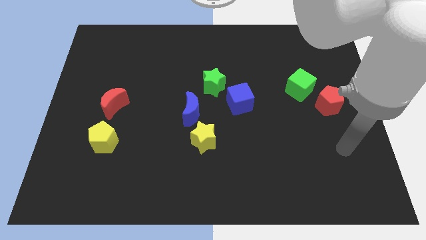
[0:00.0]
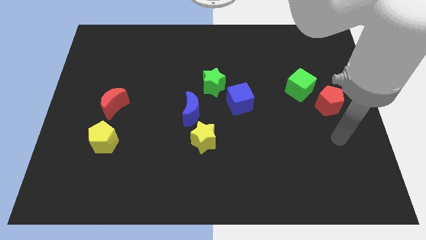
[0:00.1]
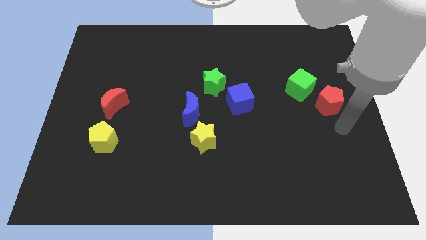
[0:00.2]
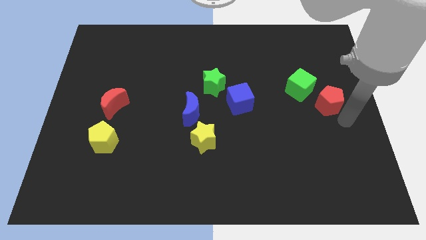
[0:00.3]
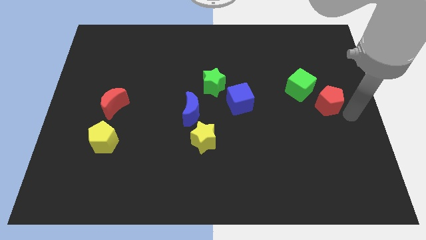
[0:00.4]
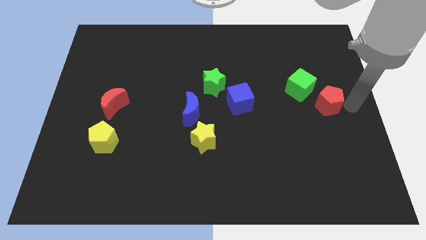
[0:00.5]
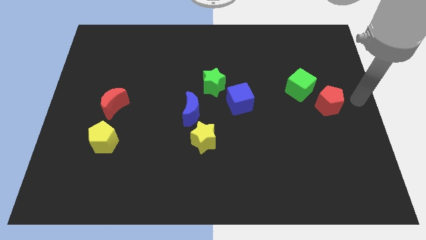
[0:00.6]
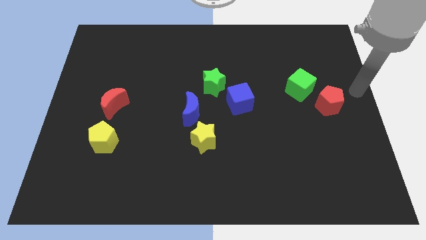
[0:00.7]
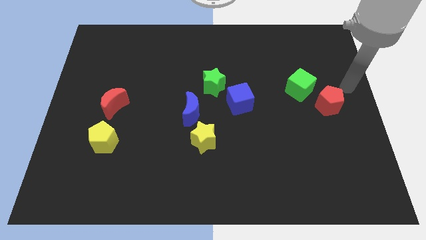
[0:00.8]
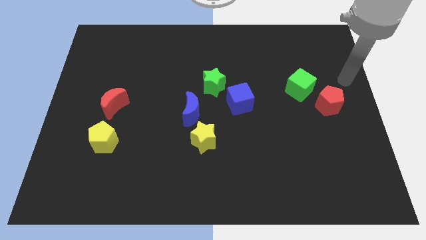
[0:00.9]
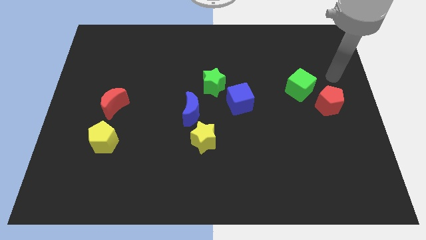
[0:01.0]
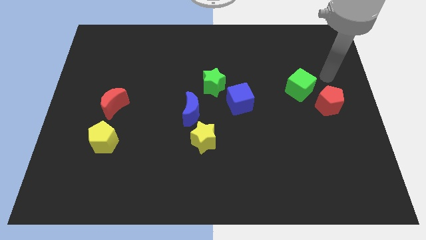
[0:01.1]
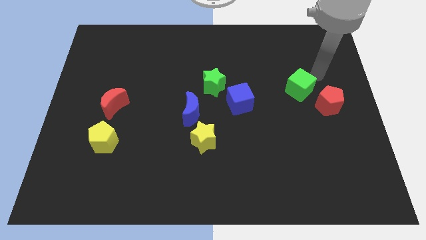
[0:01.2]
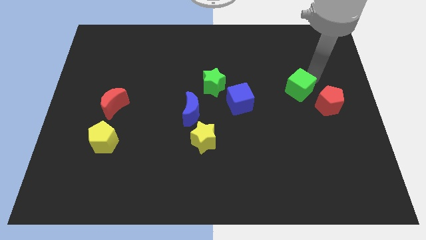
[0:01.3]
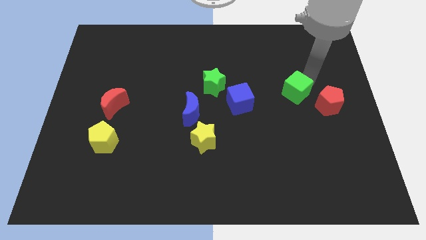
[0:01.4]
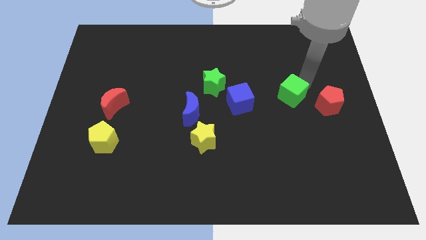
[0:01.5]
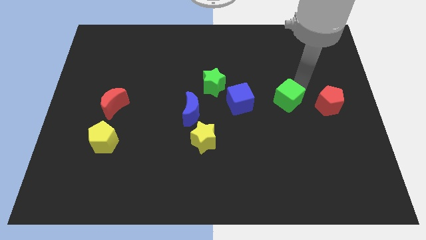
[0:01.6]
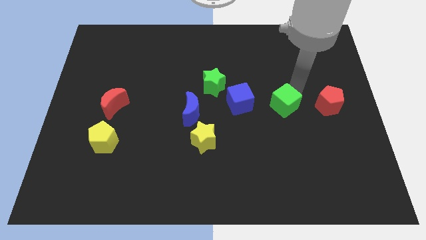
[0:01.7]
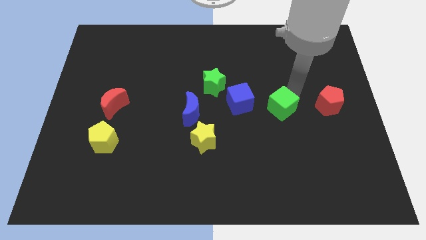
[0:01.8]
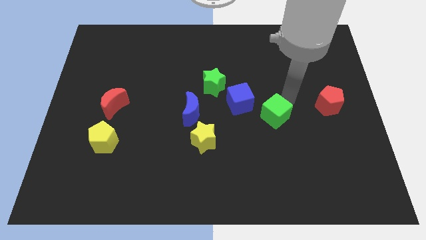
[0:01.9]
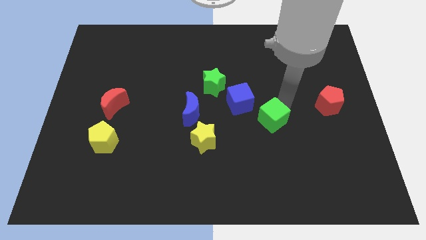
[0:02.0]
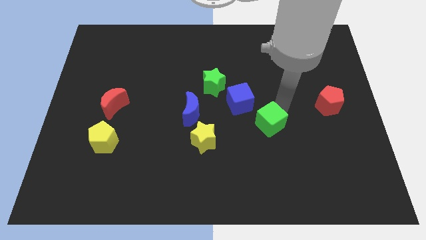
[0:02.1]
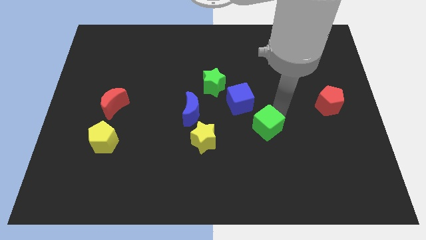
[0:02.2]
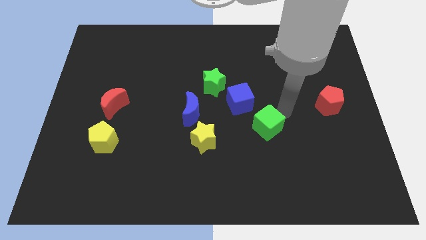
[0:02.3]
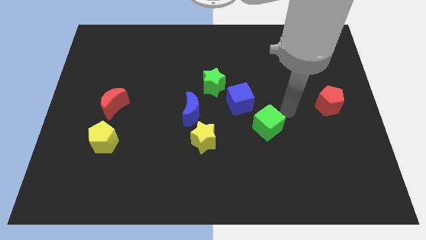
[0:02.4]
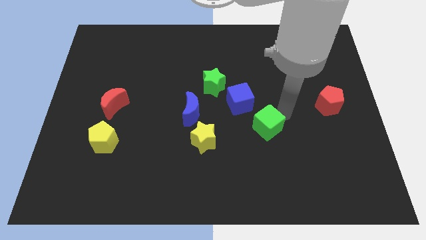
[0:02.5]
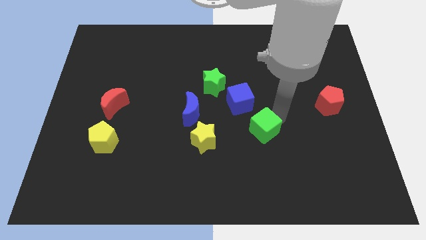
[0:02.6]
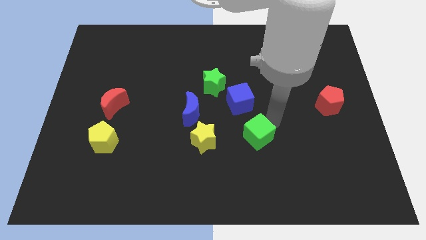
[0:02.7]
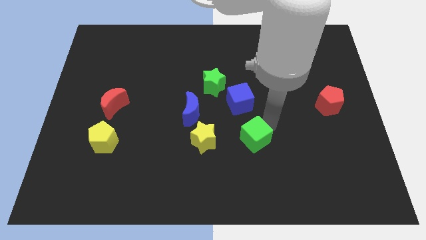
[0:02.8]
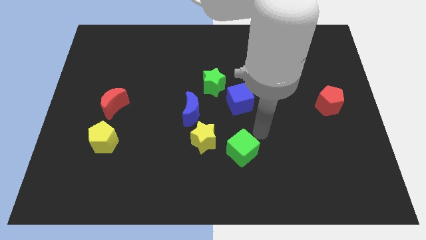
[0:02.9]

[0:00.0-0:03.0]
push the green cube downwards and then left

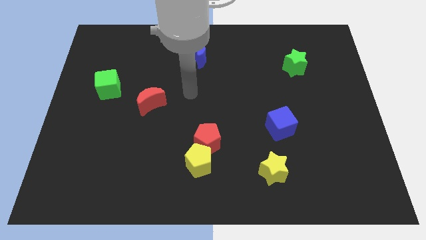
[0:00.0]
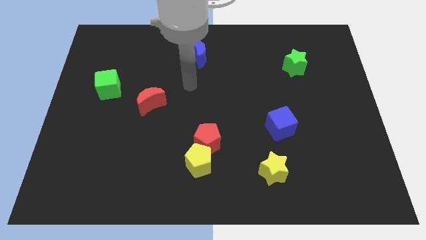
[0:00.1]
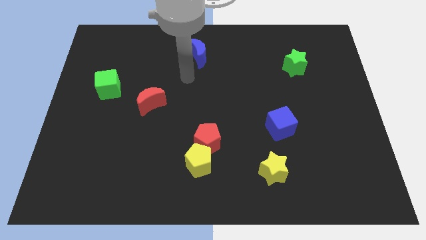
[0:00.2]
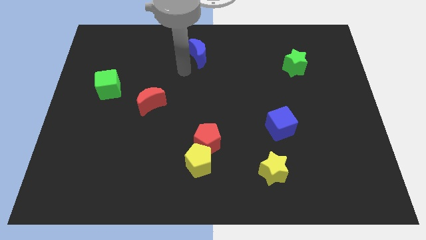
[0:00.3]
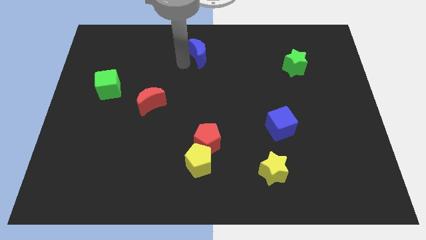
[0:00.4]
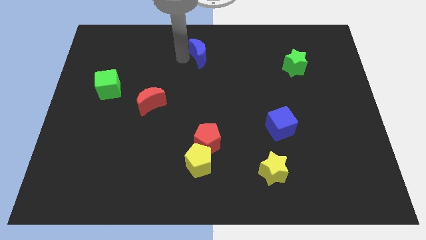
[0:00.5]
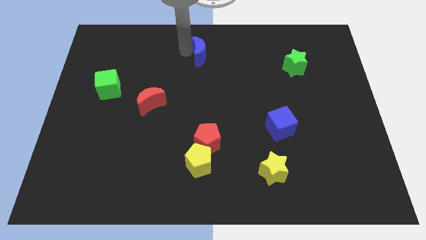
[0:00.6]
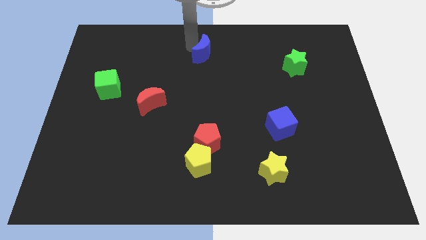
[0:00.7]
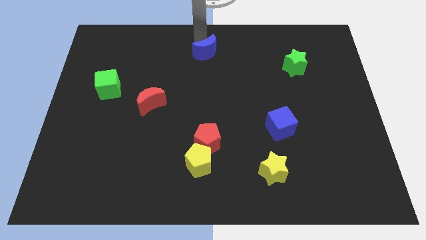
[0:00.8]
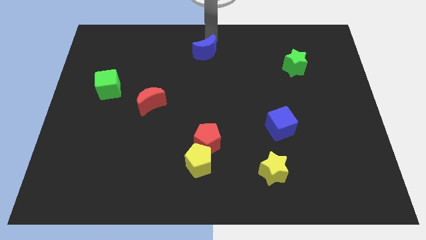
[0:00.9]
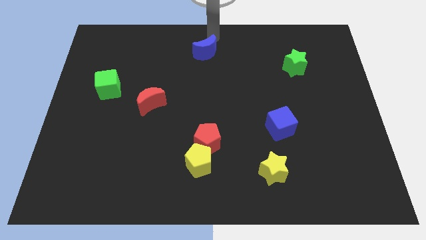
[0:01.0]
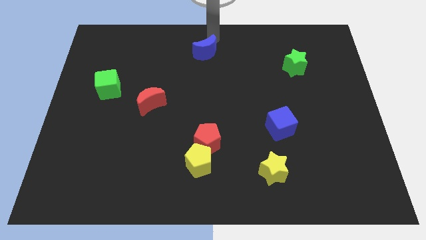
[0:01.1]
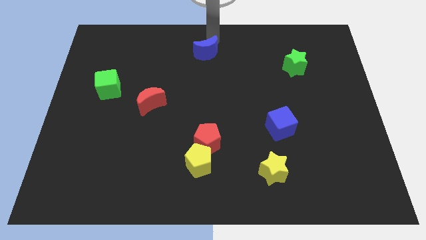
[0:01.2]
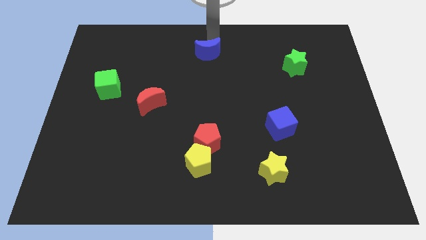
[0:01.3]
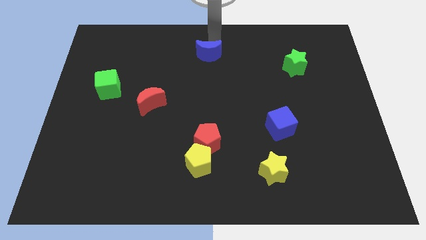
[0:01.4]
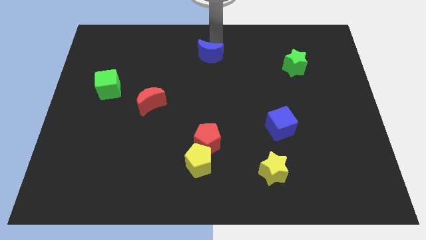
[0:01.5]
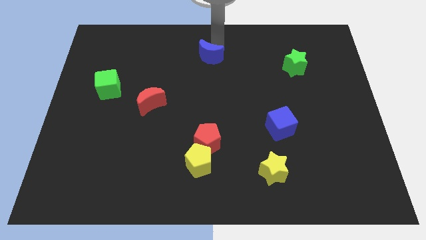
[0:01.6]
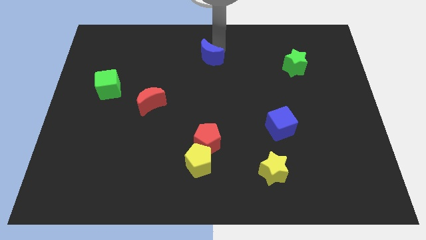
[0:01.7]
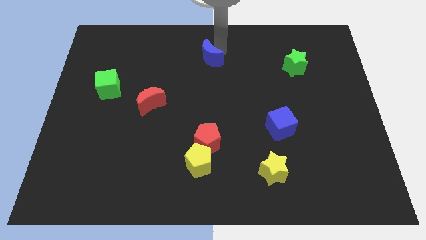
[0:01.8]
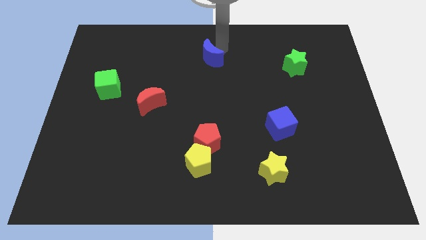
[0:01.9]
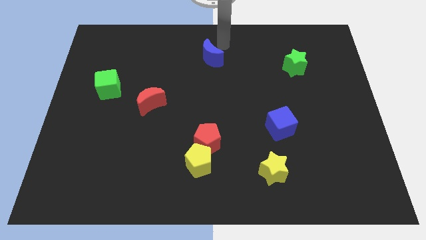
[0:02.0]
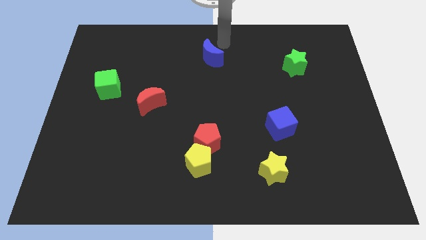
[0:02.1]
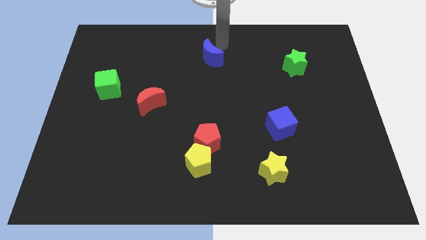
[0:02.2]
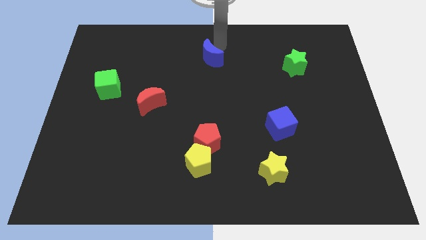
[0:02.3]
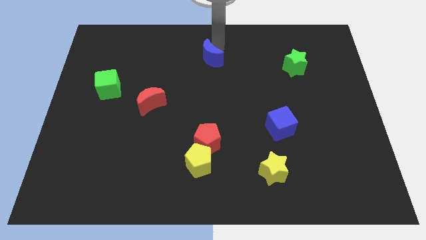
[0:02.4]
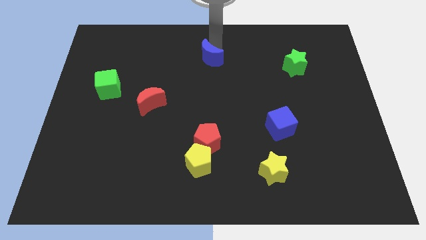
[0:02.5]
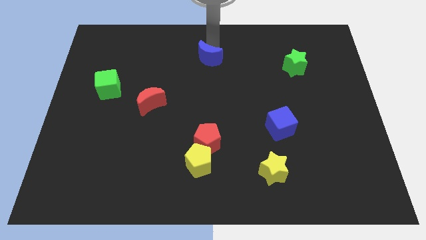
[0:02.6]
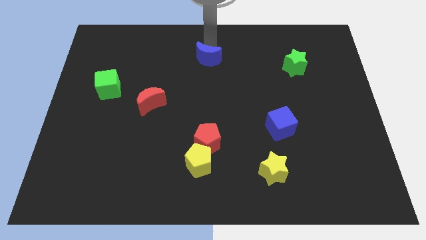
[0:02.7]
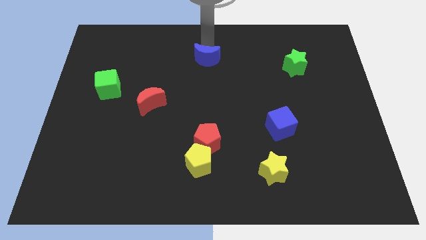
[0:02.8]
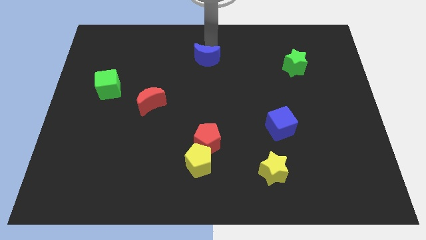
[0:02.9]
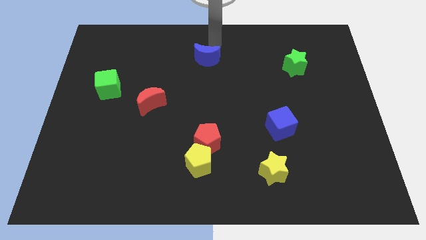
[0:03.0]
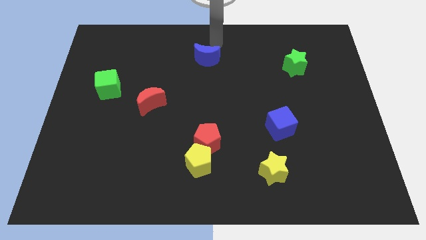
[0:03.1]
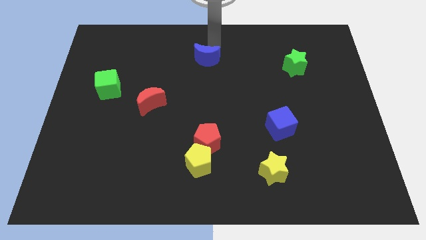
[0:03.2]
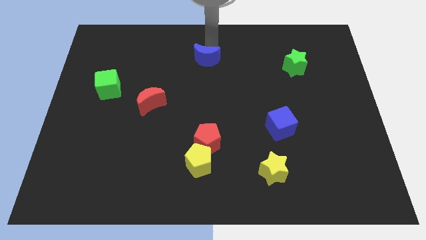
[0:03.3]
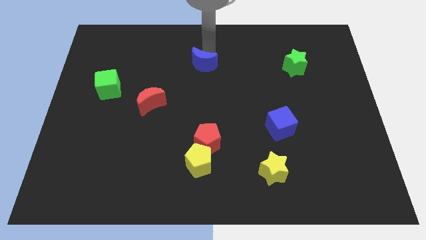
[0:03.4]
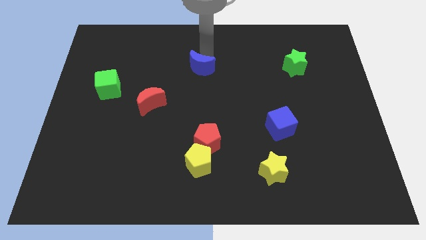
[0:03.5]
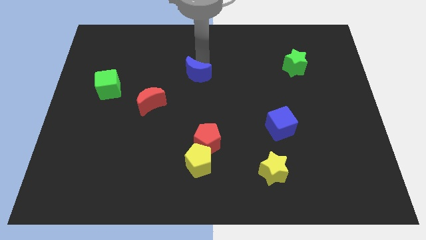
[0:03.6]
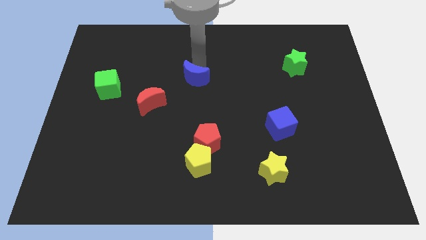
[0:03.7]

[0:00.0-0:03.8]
slightly push the blue moon down

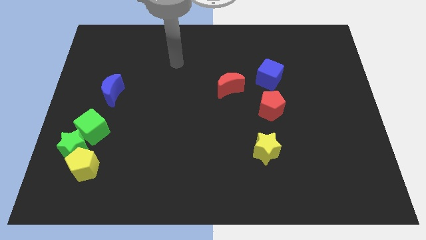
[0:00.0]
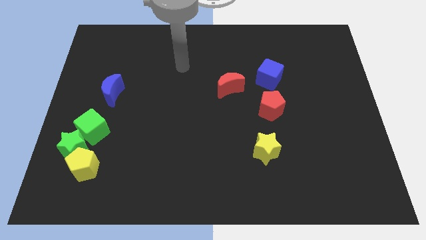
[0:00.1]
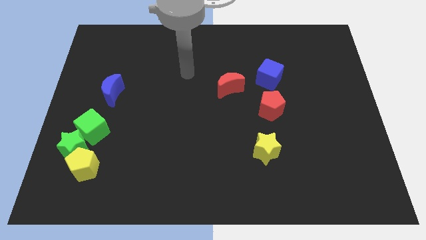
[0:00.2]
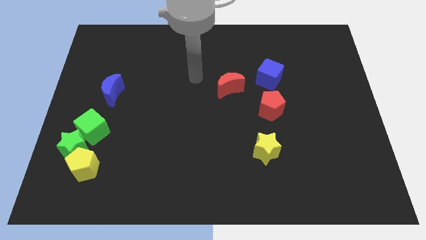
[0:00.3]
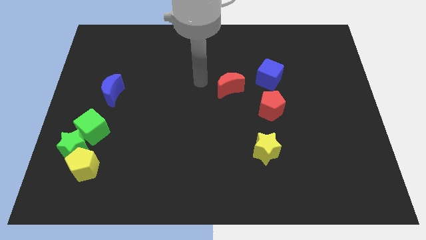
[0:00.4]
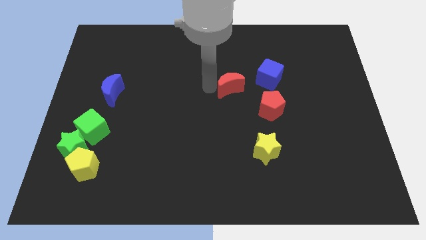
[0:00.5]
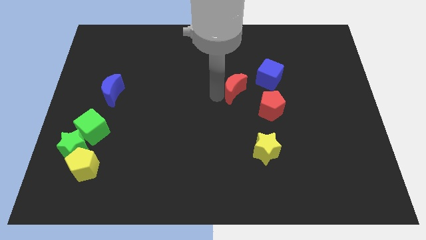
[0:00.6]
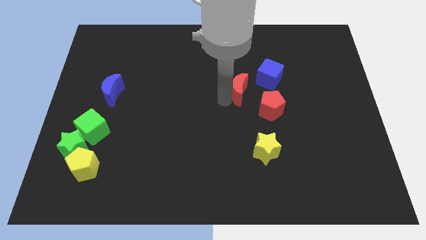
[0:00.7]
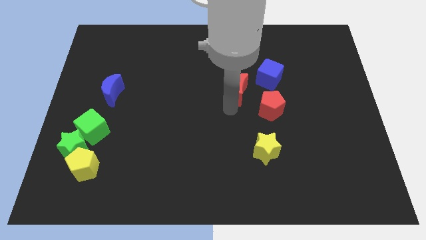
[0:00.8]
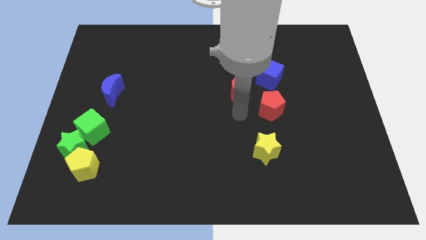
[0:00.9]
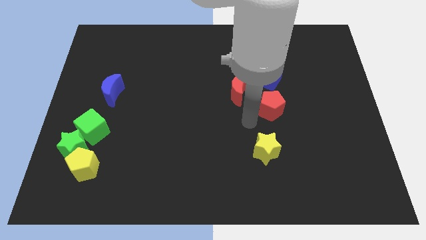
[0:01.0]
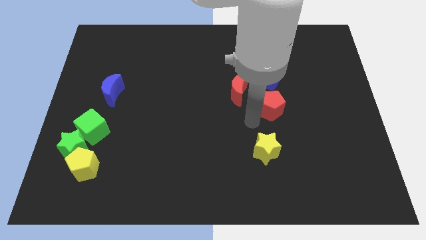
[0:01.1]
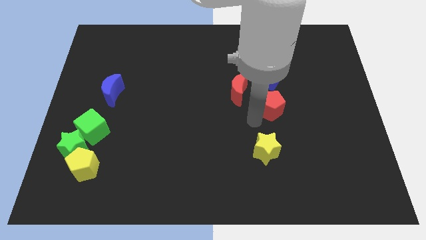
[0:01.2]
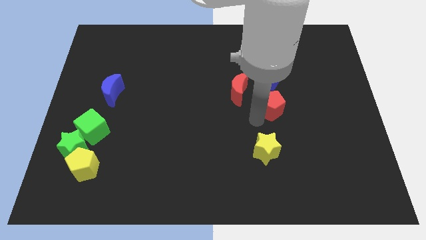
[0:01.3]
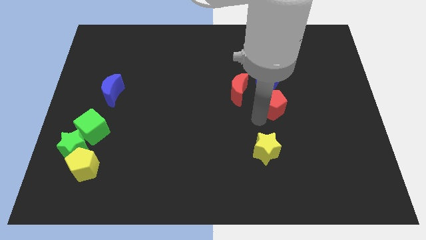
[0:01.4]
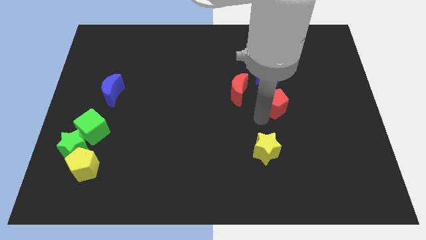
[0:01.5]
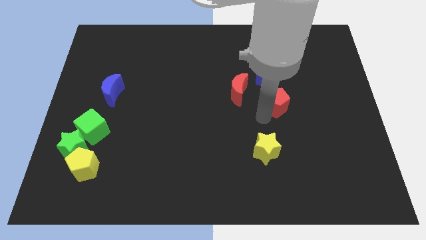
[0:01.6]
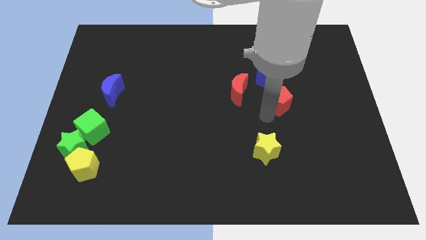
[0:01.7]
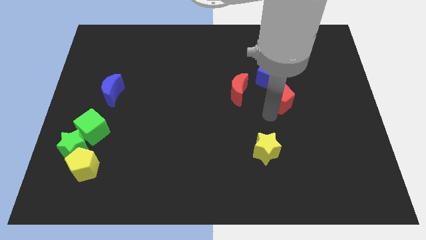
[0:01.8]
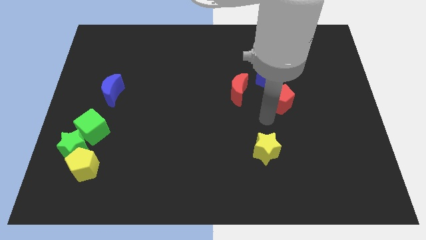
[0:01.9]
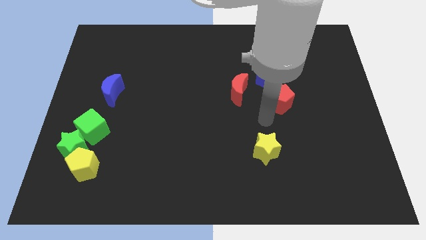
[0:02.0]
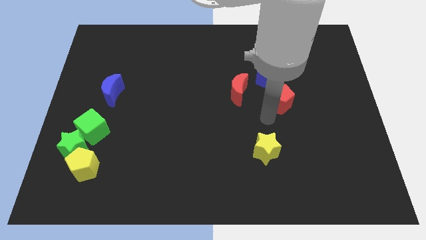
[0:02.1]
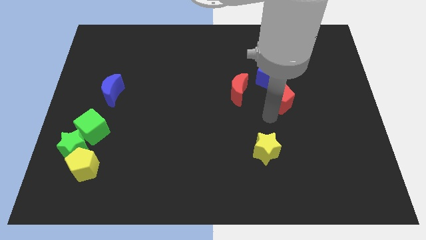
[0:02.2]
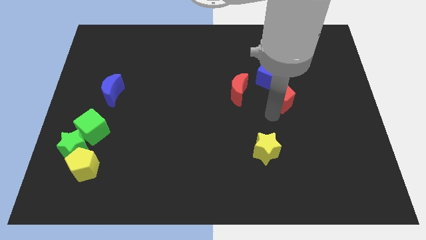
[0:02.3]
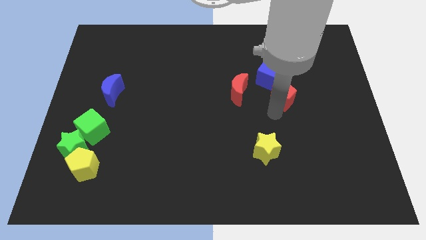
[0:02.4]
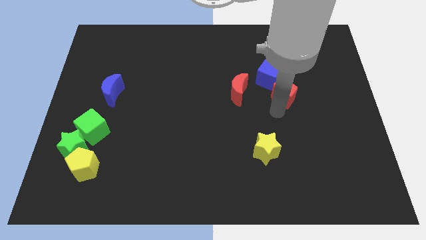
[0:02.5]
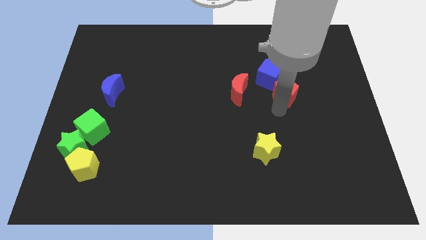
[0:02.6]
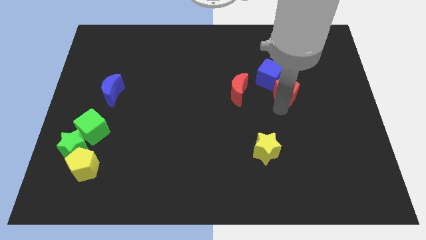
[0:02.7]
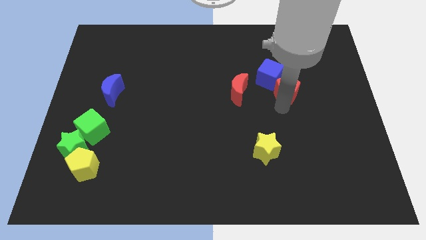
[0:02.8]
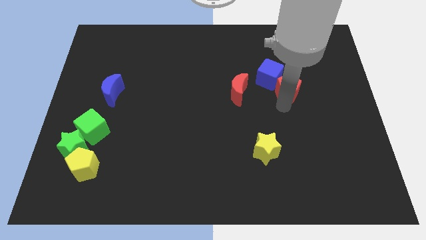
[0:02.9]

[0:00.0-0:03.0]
push the red pentagon slightly upwards and to the right
